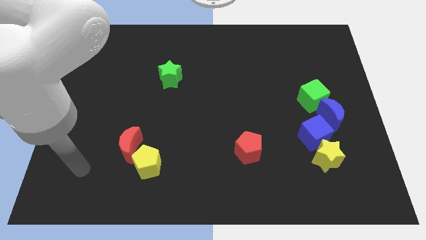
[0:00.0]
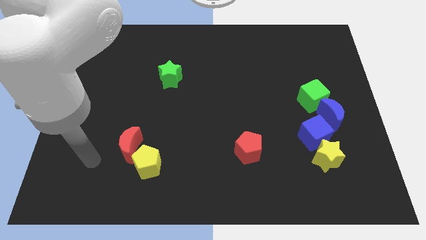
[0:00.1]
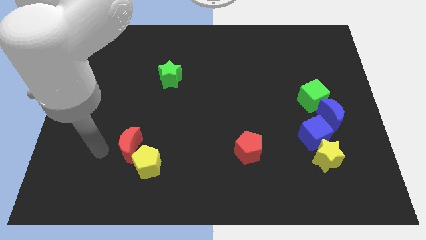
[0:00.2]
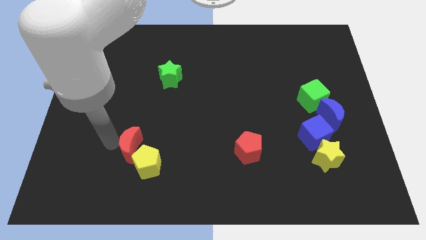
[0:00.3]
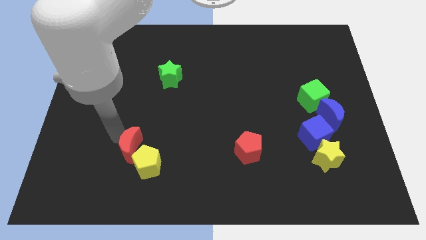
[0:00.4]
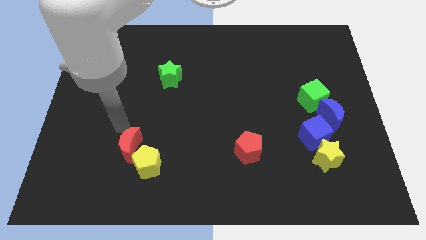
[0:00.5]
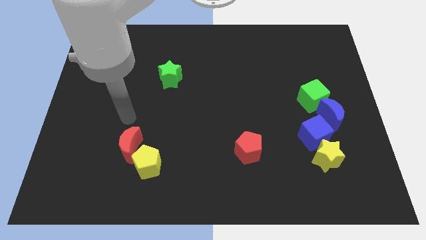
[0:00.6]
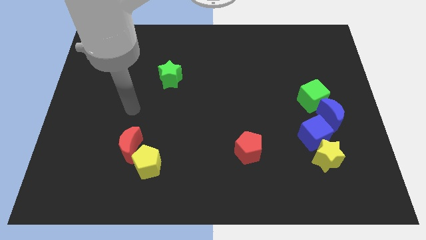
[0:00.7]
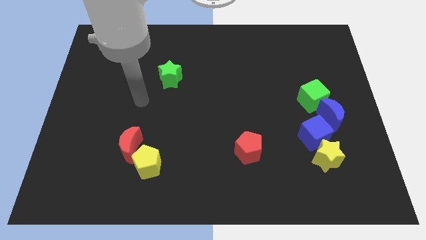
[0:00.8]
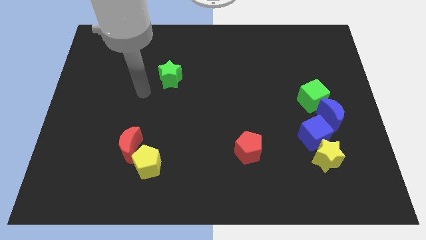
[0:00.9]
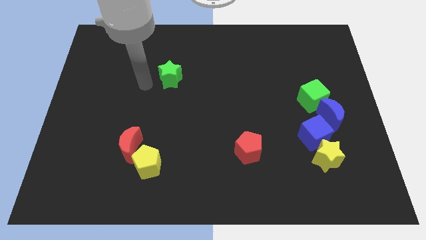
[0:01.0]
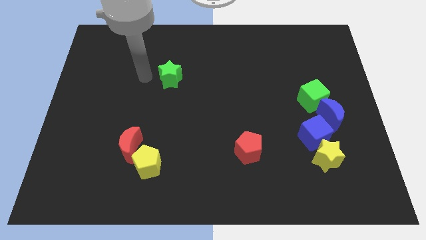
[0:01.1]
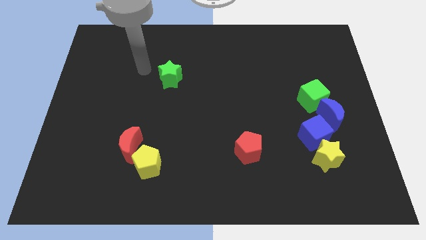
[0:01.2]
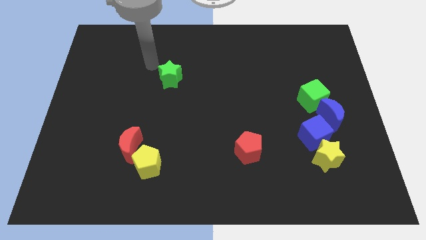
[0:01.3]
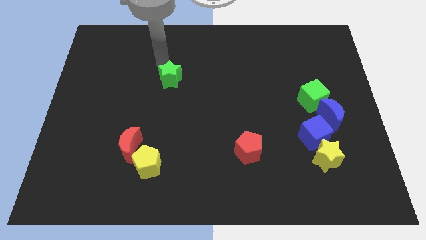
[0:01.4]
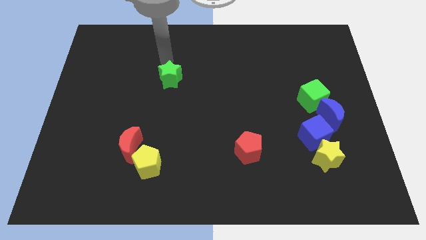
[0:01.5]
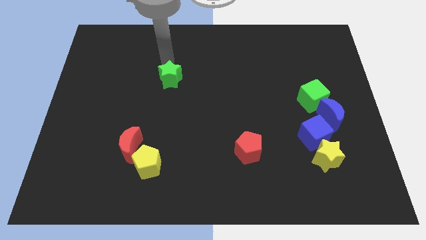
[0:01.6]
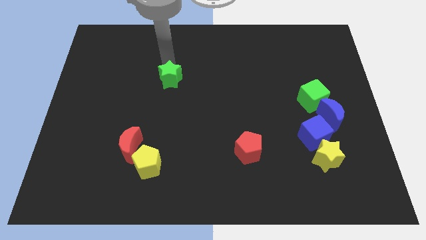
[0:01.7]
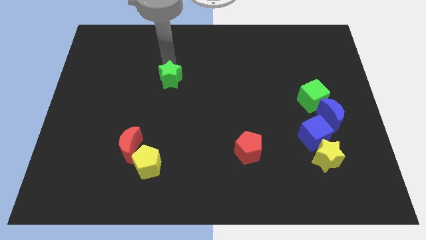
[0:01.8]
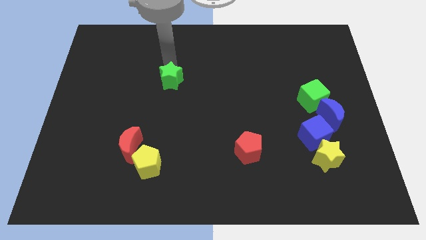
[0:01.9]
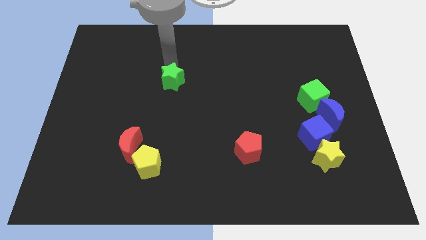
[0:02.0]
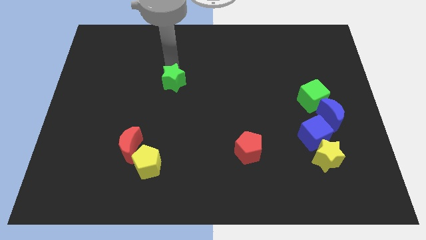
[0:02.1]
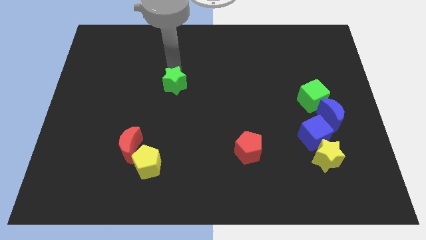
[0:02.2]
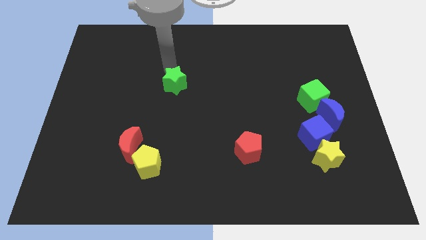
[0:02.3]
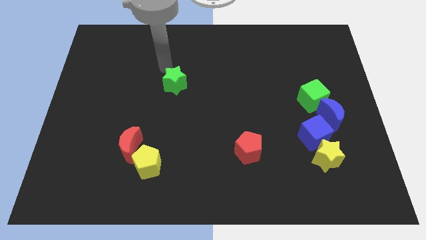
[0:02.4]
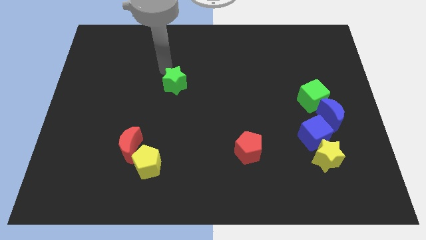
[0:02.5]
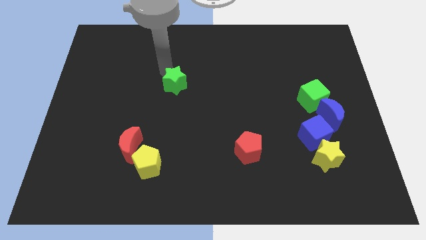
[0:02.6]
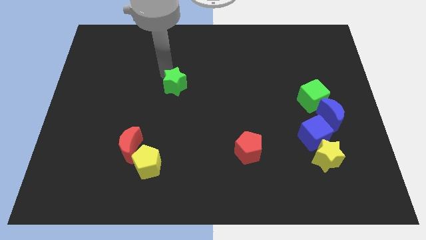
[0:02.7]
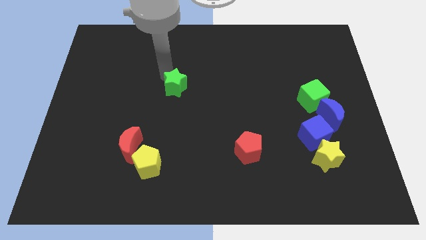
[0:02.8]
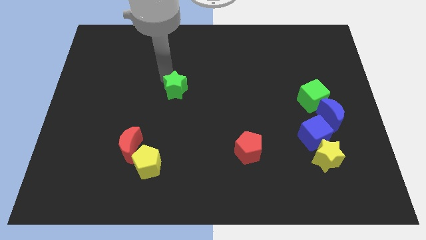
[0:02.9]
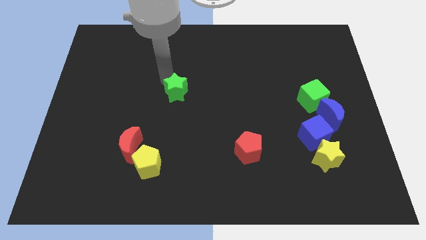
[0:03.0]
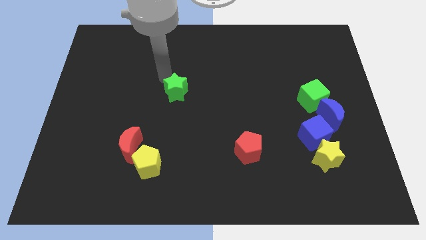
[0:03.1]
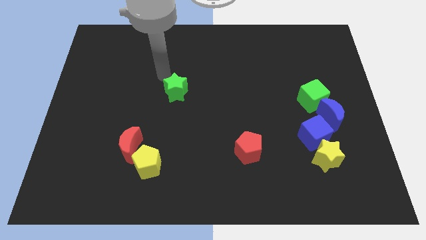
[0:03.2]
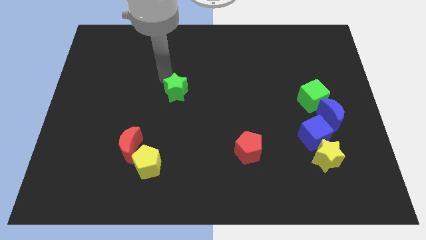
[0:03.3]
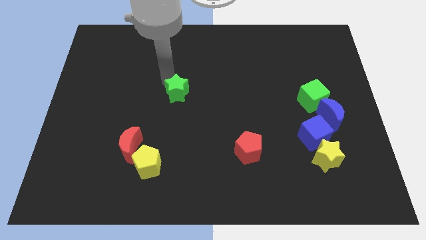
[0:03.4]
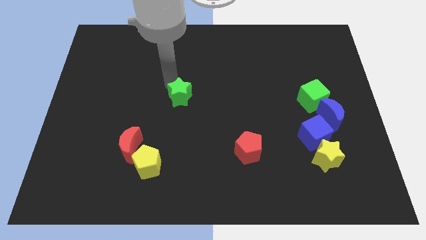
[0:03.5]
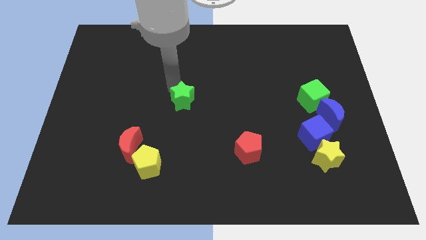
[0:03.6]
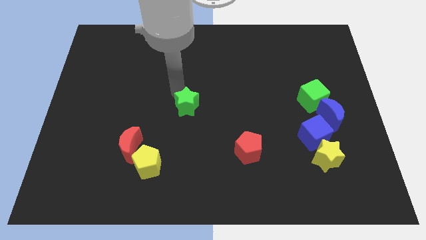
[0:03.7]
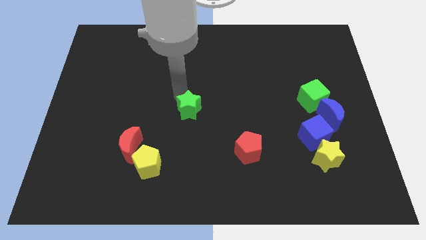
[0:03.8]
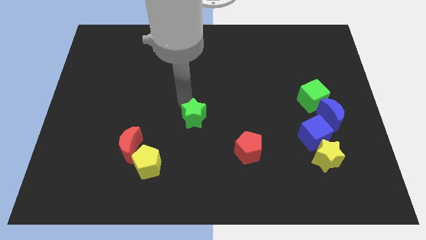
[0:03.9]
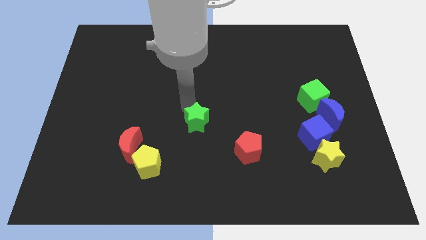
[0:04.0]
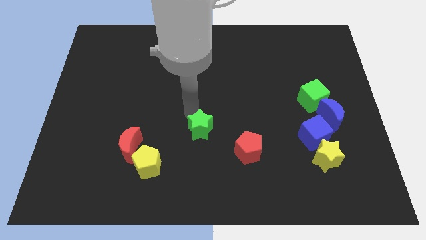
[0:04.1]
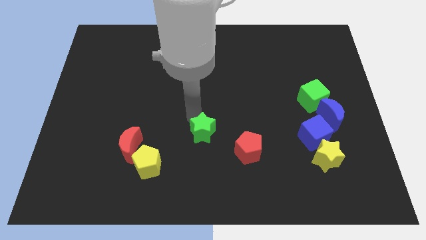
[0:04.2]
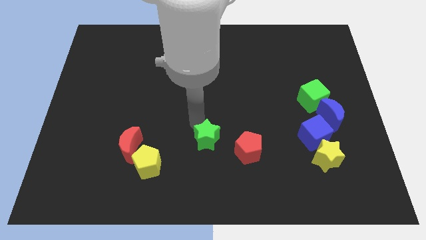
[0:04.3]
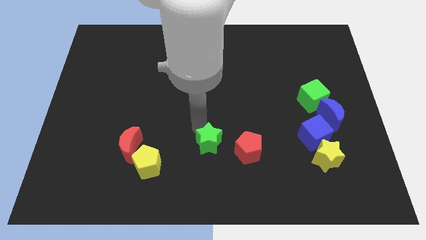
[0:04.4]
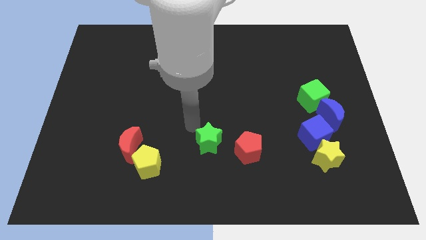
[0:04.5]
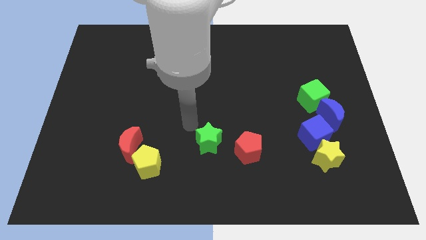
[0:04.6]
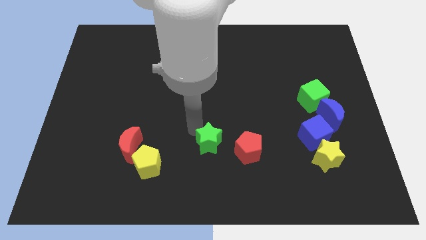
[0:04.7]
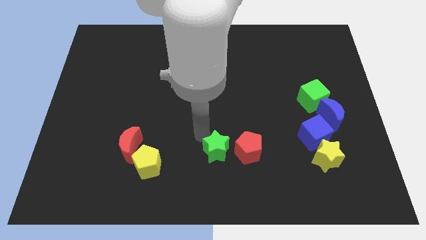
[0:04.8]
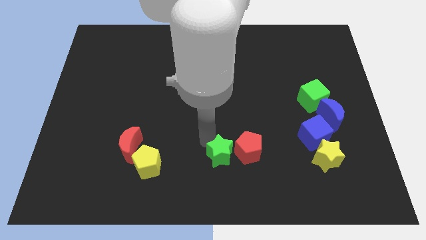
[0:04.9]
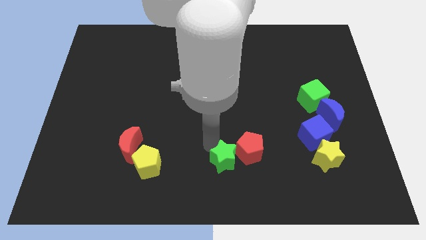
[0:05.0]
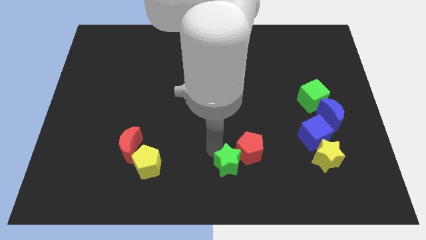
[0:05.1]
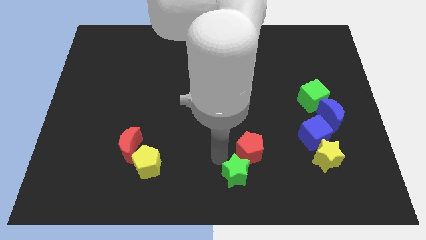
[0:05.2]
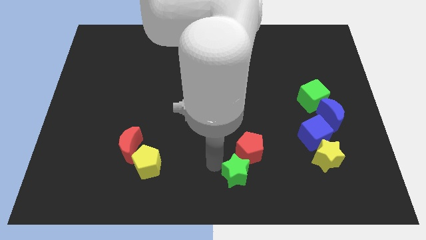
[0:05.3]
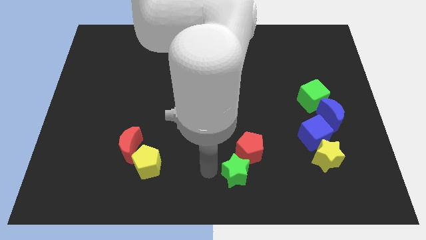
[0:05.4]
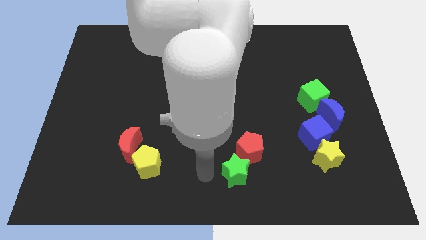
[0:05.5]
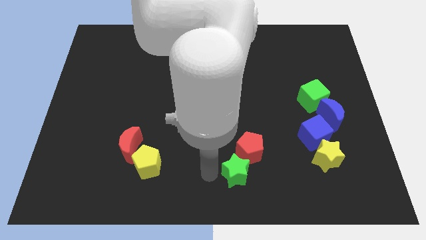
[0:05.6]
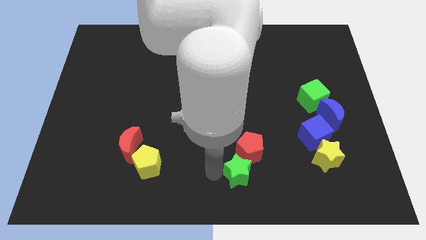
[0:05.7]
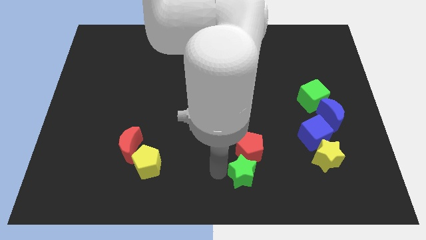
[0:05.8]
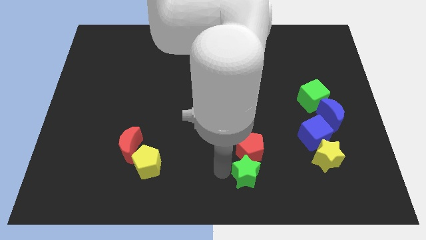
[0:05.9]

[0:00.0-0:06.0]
move the green star to the bottom right side of the red pentagon

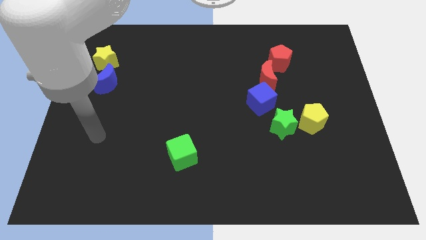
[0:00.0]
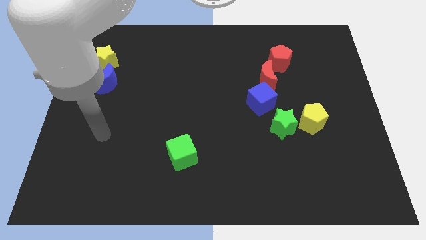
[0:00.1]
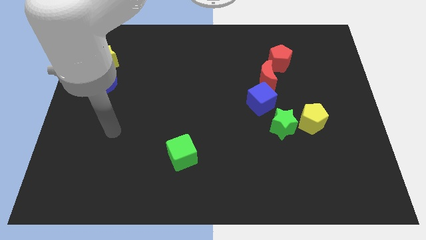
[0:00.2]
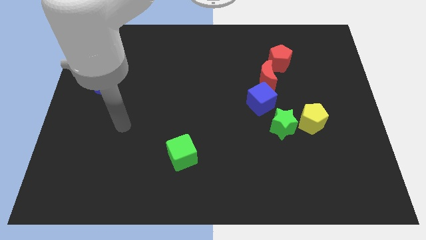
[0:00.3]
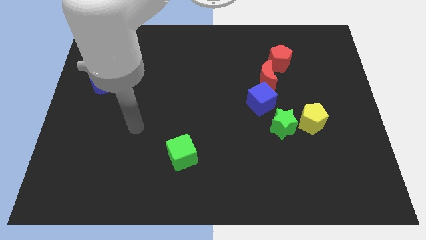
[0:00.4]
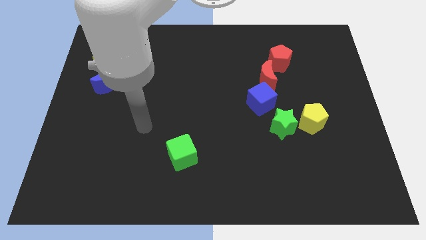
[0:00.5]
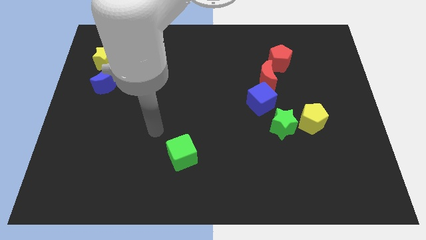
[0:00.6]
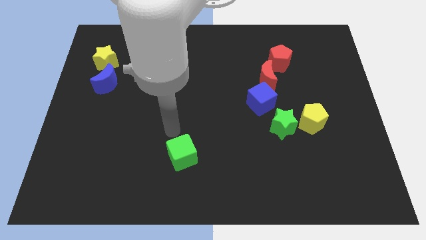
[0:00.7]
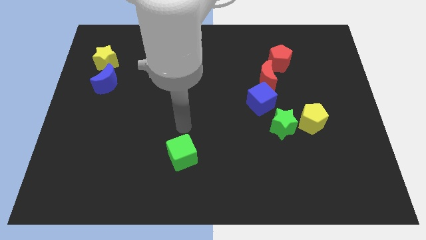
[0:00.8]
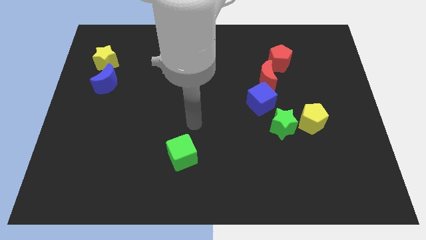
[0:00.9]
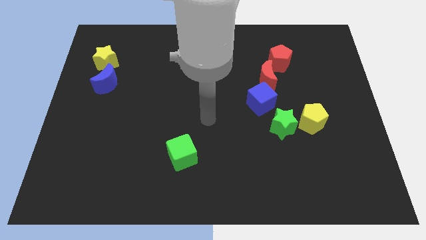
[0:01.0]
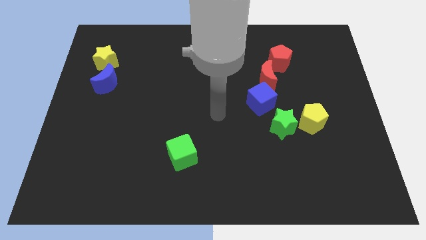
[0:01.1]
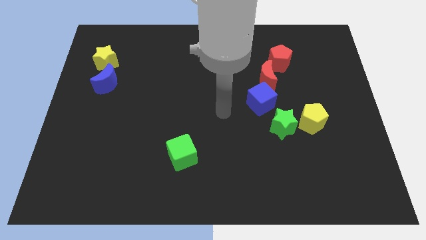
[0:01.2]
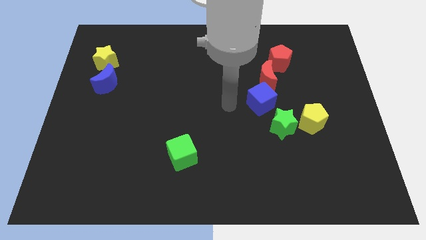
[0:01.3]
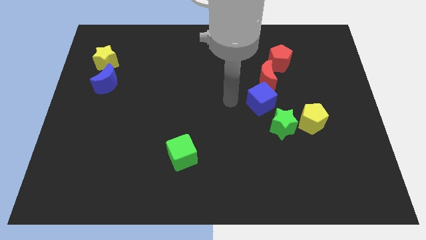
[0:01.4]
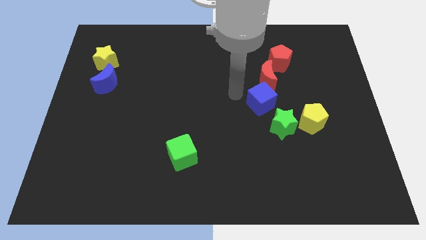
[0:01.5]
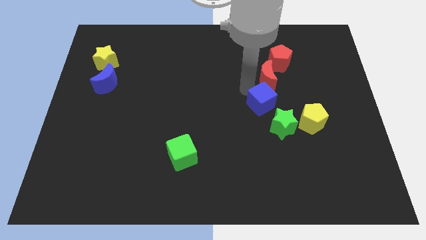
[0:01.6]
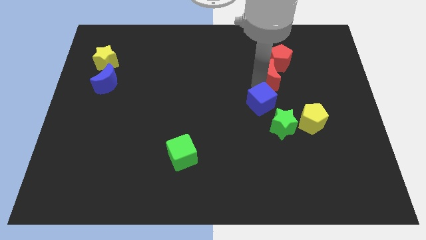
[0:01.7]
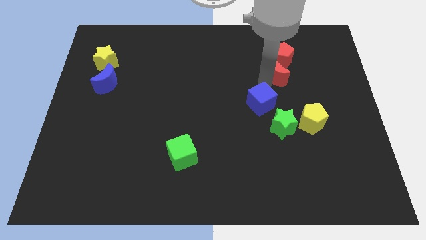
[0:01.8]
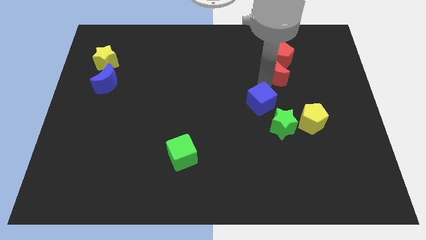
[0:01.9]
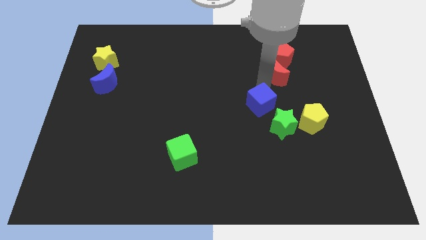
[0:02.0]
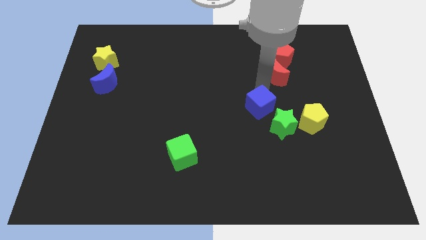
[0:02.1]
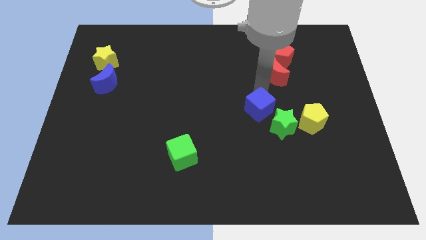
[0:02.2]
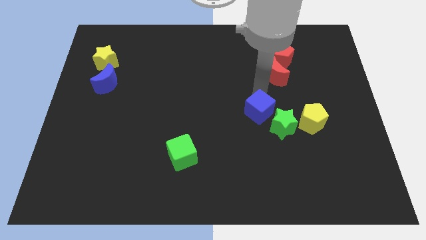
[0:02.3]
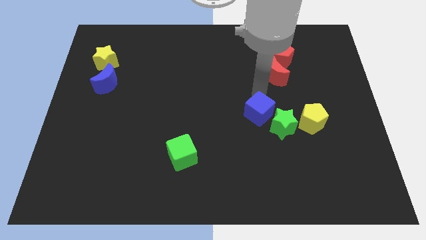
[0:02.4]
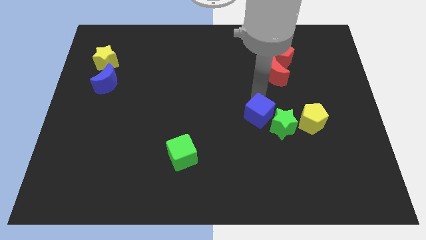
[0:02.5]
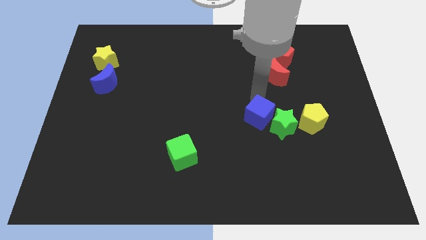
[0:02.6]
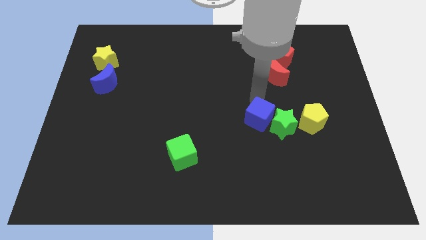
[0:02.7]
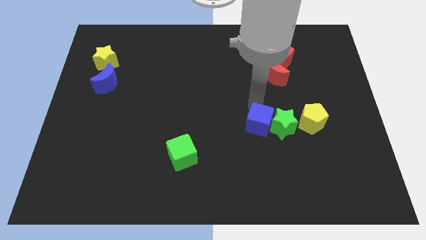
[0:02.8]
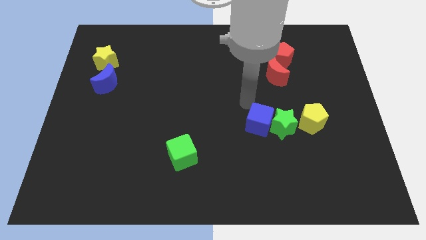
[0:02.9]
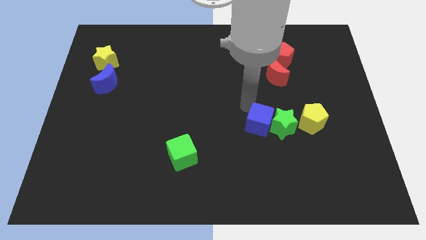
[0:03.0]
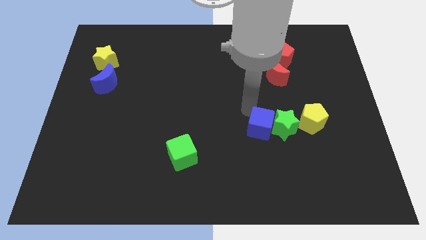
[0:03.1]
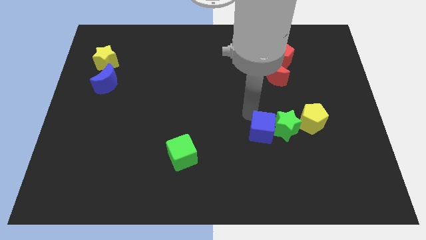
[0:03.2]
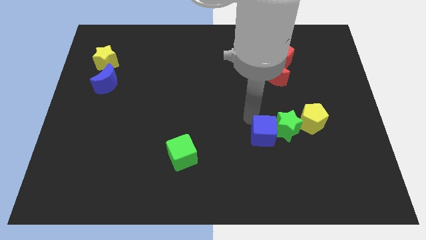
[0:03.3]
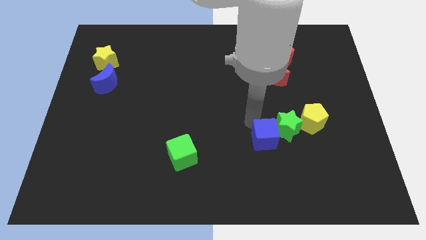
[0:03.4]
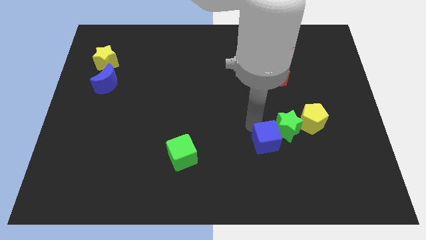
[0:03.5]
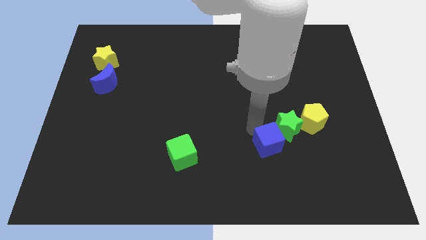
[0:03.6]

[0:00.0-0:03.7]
move the blue cube below the green star
